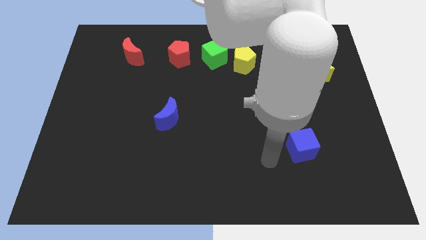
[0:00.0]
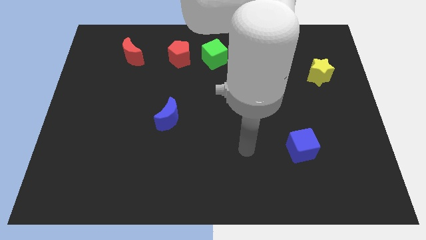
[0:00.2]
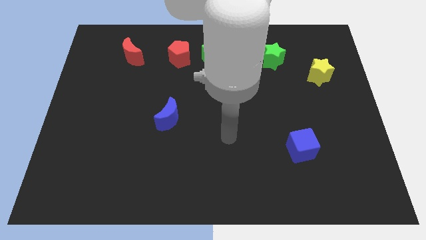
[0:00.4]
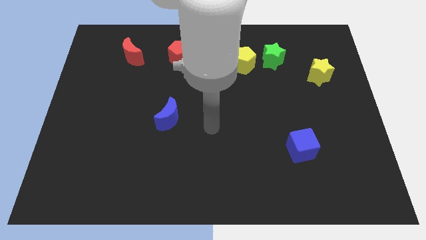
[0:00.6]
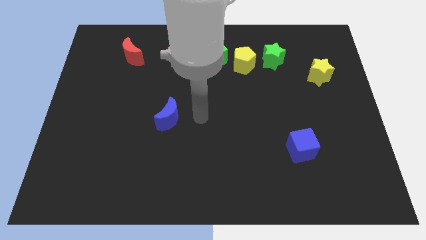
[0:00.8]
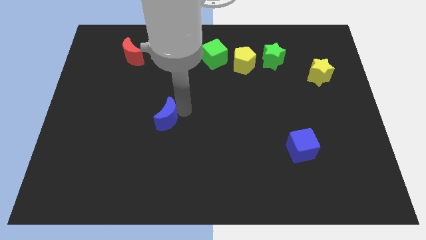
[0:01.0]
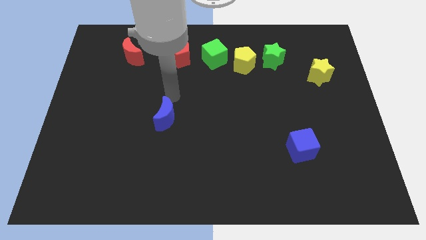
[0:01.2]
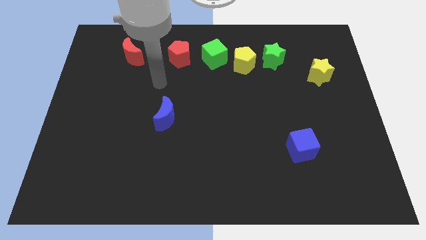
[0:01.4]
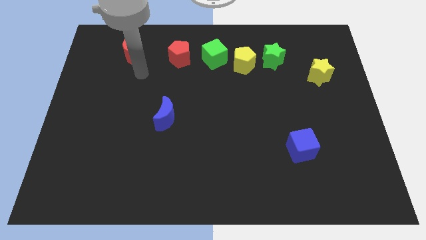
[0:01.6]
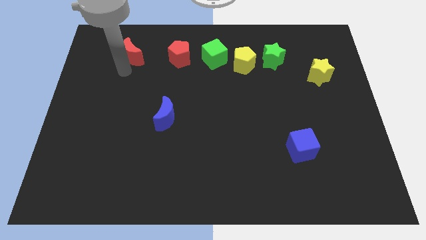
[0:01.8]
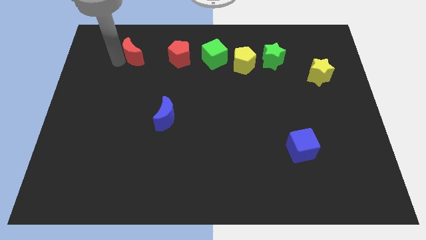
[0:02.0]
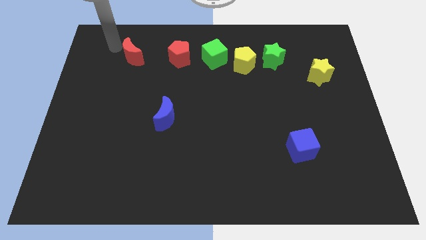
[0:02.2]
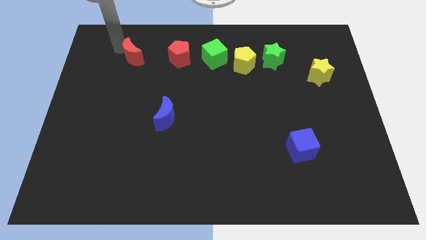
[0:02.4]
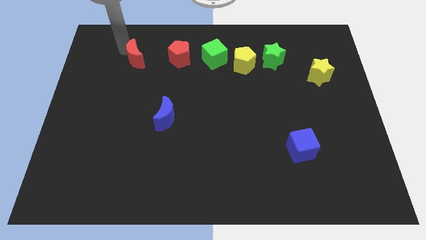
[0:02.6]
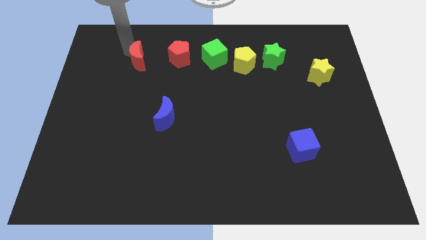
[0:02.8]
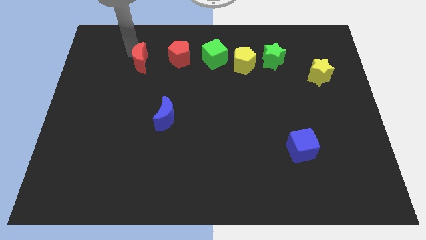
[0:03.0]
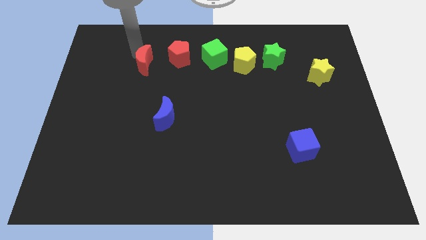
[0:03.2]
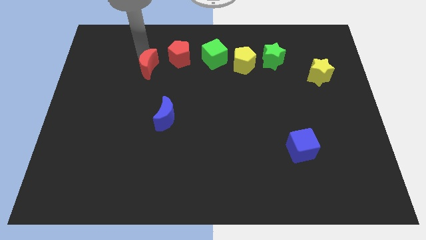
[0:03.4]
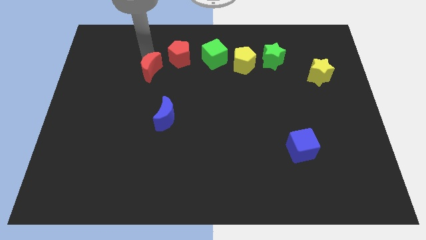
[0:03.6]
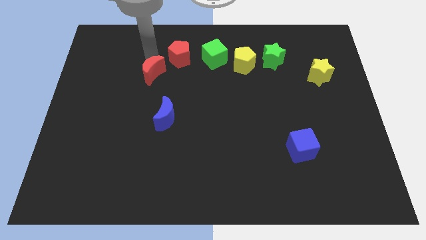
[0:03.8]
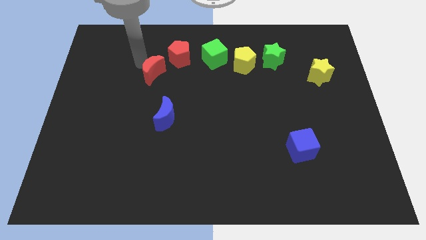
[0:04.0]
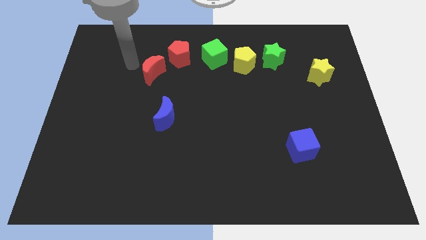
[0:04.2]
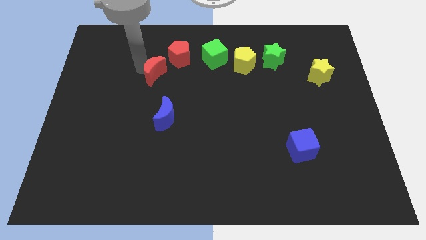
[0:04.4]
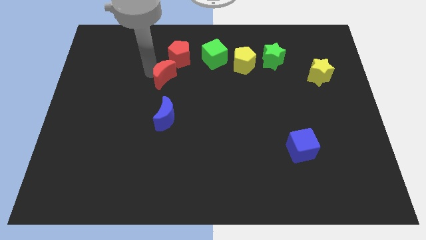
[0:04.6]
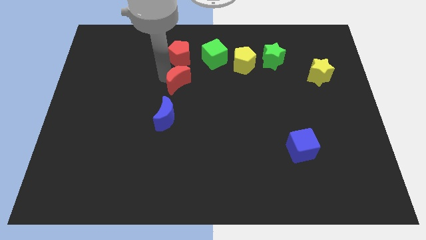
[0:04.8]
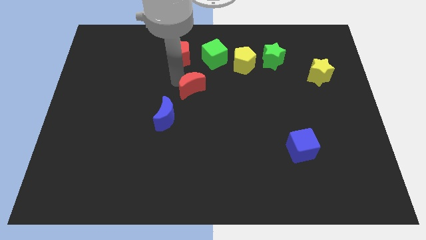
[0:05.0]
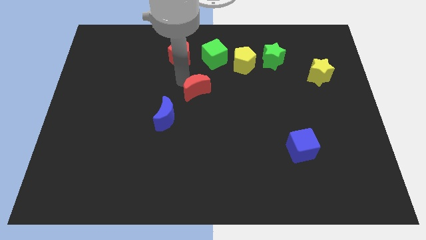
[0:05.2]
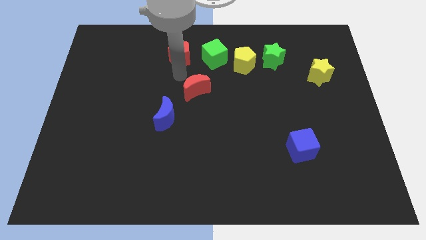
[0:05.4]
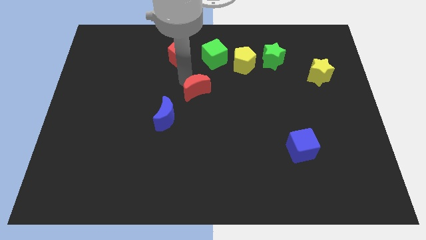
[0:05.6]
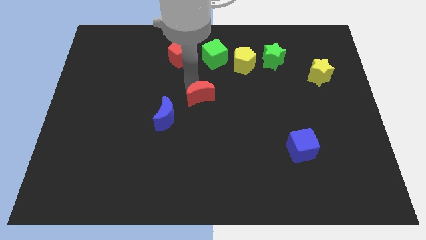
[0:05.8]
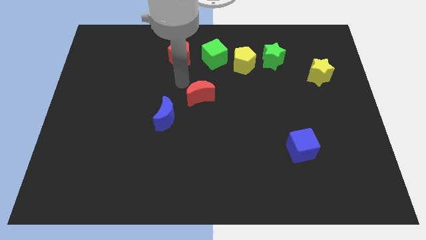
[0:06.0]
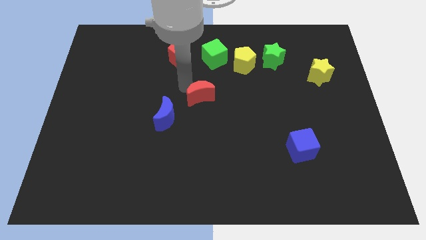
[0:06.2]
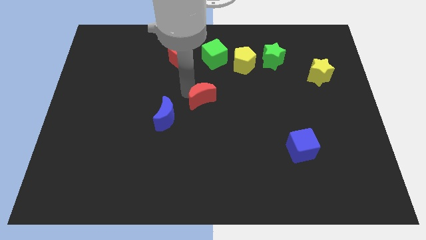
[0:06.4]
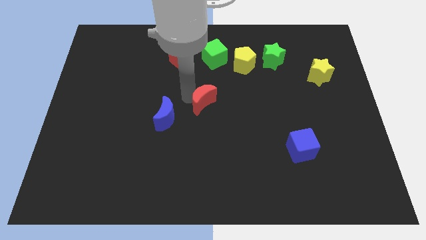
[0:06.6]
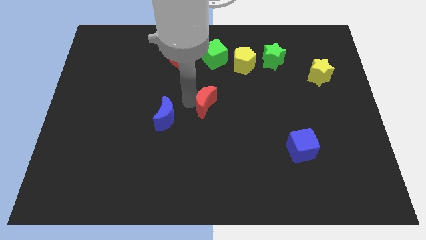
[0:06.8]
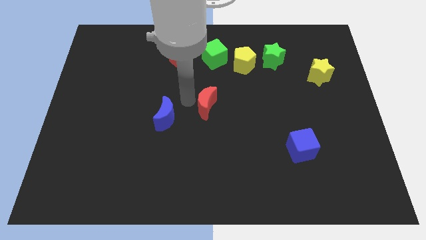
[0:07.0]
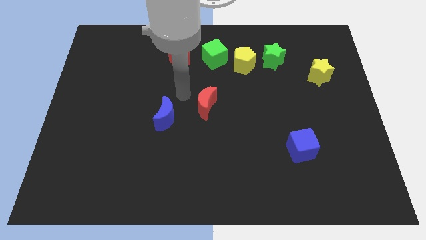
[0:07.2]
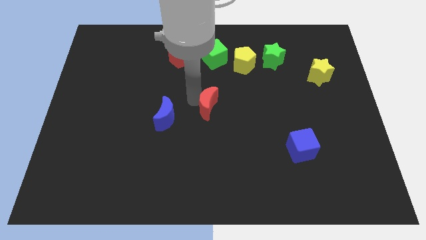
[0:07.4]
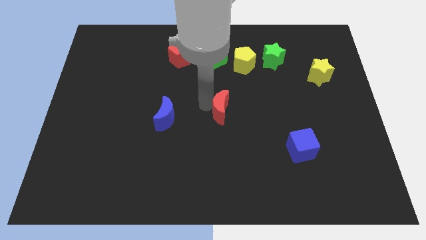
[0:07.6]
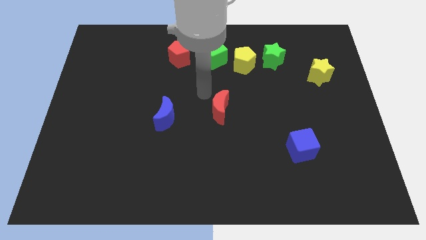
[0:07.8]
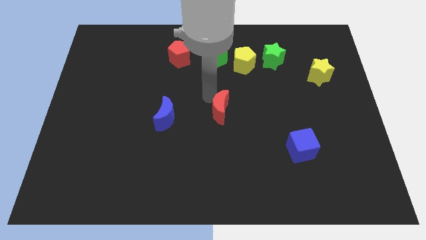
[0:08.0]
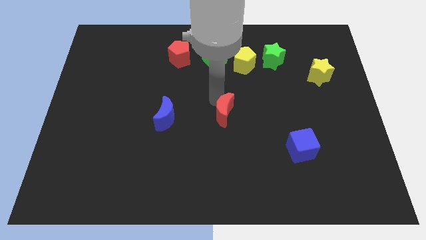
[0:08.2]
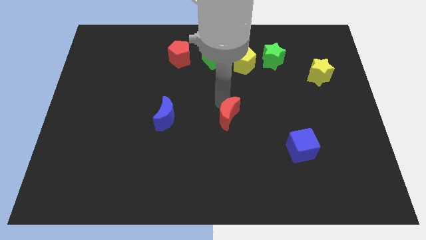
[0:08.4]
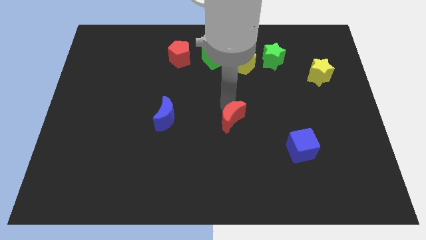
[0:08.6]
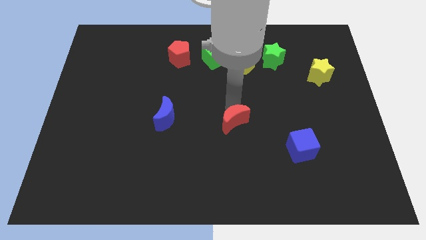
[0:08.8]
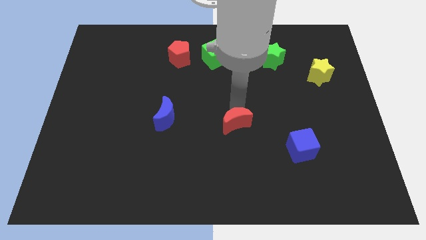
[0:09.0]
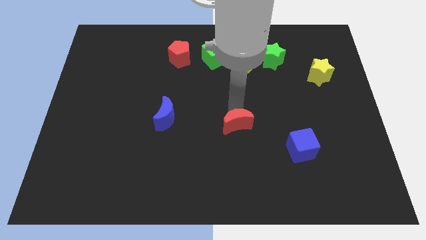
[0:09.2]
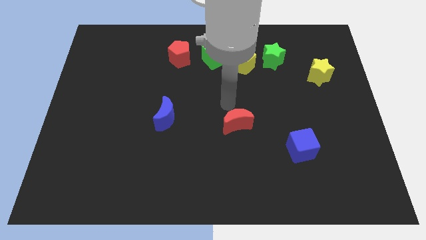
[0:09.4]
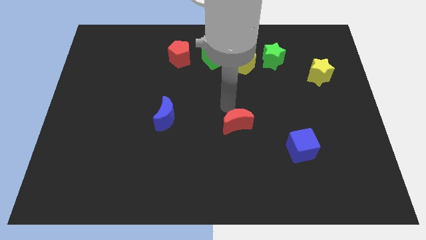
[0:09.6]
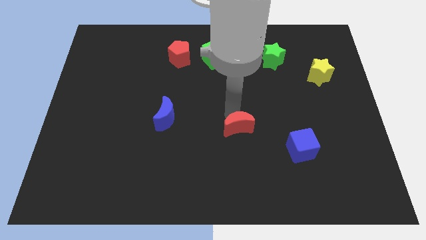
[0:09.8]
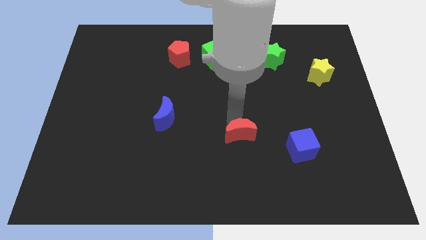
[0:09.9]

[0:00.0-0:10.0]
slide the red moon left of the blue cube

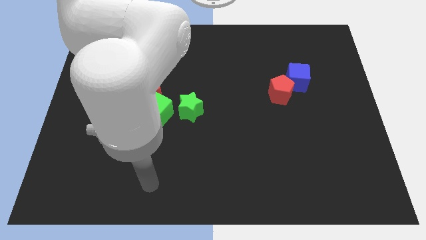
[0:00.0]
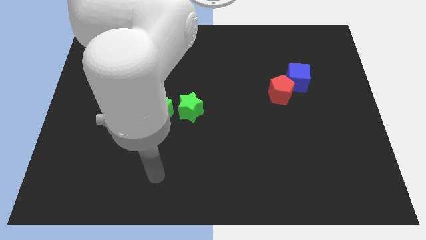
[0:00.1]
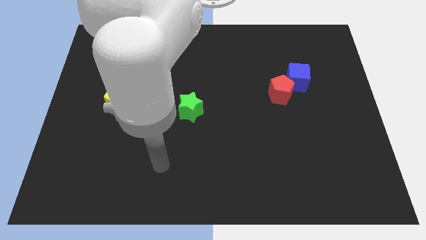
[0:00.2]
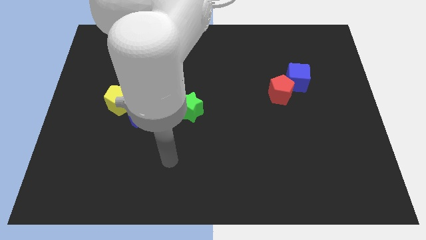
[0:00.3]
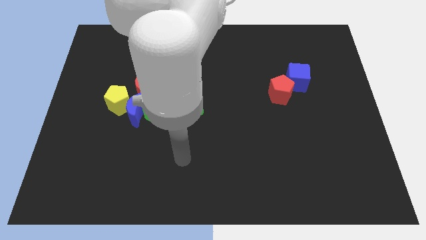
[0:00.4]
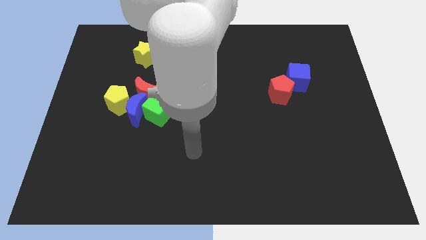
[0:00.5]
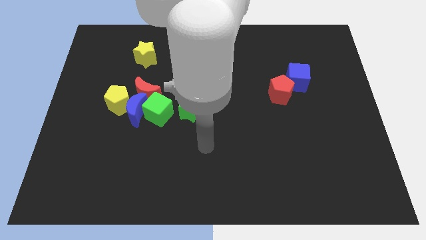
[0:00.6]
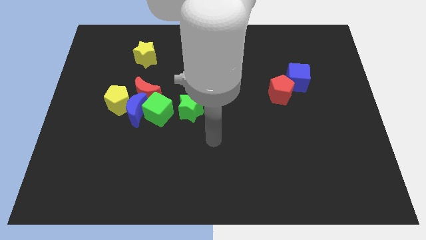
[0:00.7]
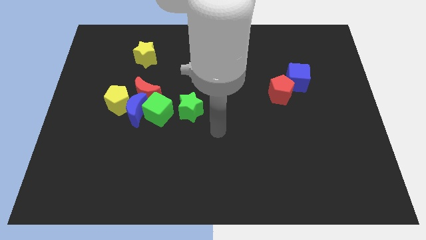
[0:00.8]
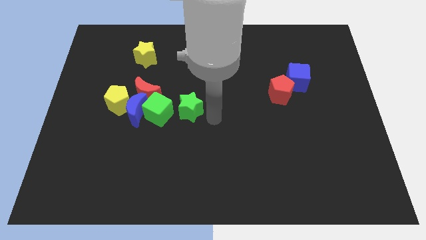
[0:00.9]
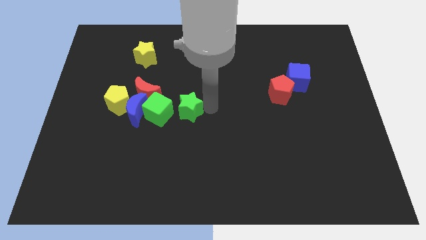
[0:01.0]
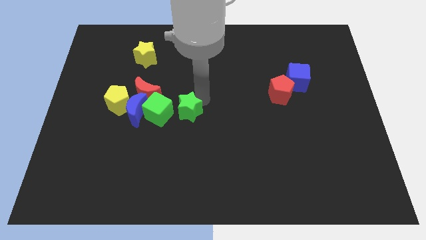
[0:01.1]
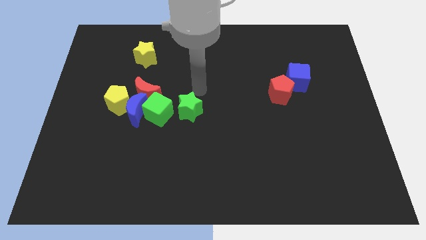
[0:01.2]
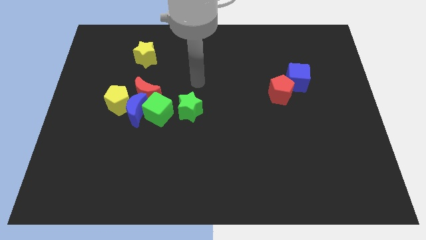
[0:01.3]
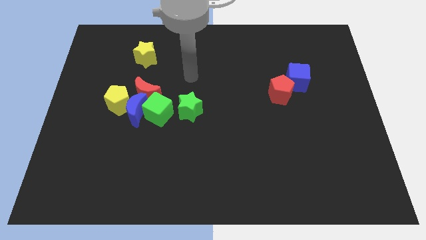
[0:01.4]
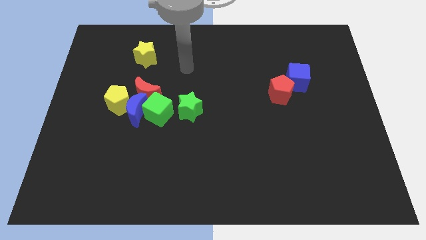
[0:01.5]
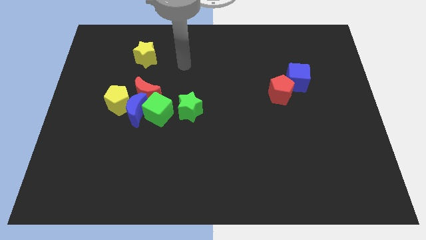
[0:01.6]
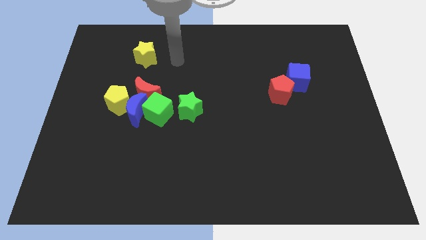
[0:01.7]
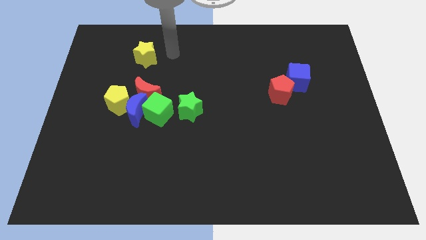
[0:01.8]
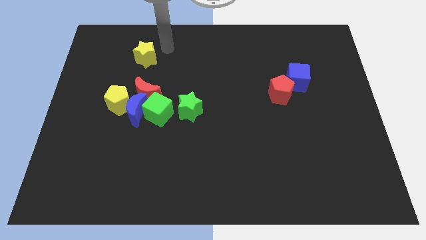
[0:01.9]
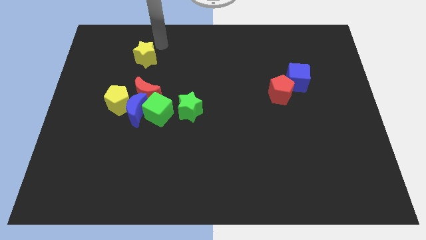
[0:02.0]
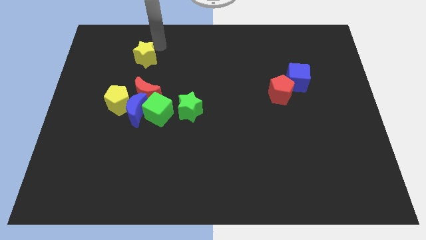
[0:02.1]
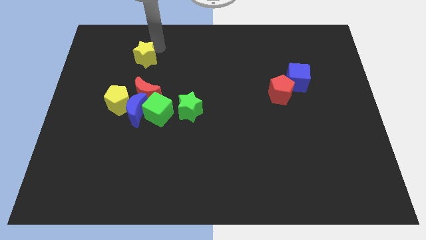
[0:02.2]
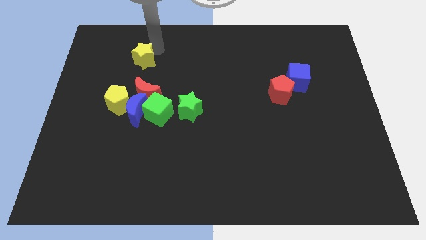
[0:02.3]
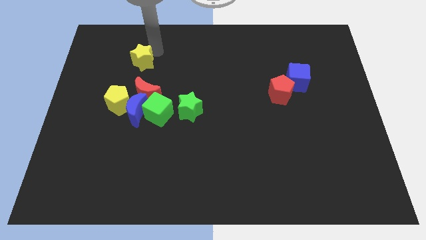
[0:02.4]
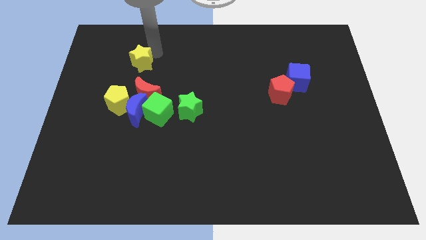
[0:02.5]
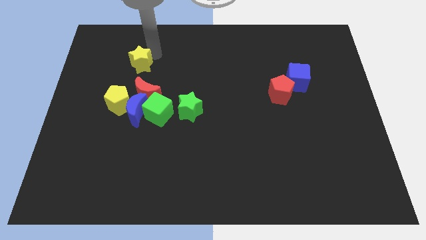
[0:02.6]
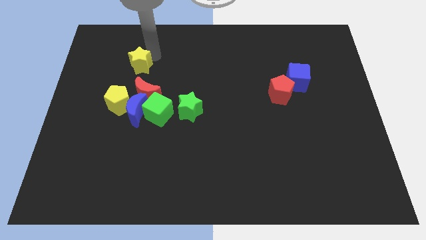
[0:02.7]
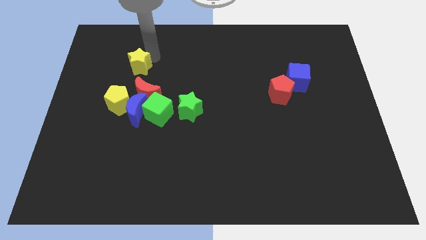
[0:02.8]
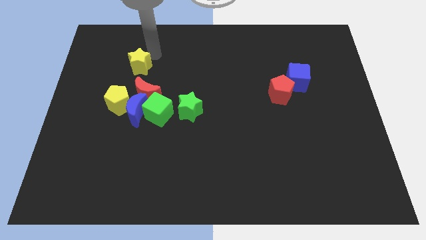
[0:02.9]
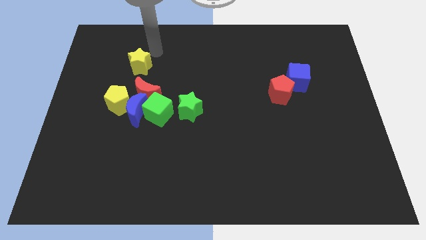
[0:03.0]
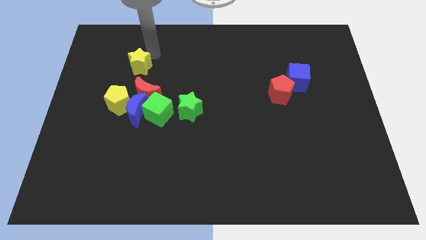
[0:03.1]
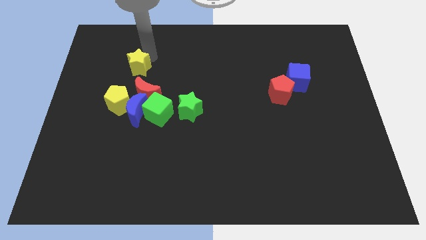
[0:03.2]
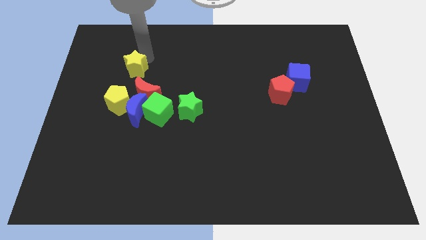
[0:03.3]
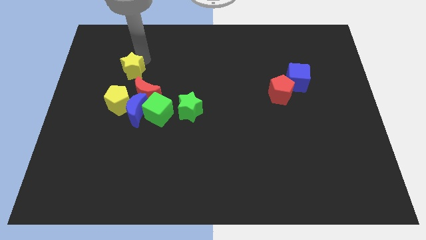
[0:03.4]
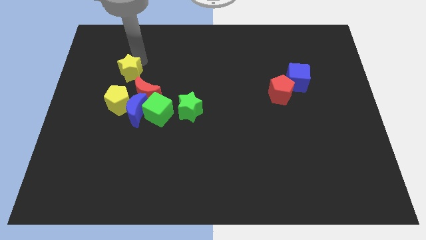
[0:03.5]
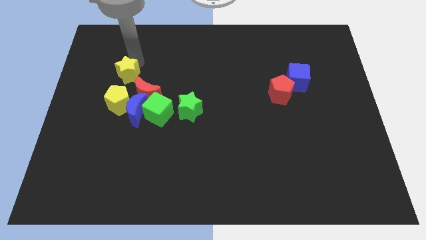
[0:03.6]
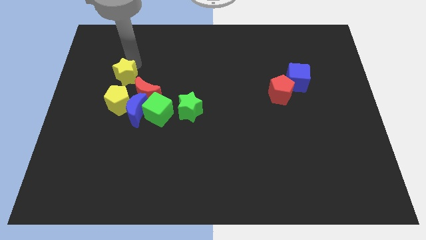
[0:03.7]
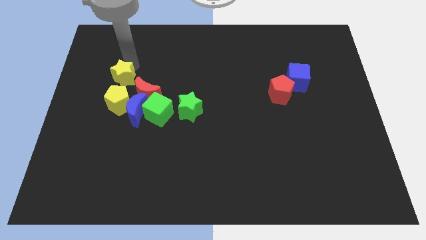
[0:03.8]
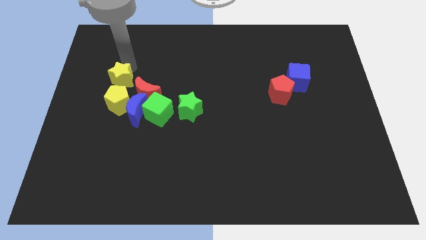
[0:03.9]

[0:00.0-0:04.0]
move the yellow star diagonally up and to the left of the blue moon
